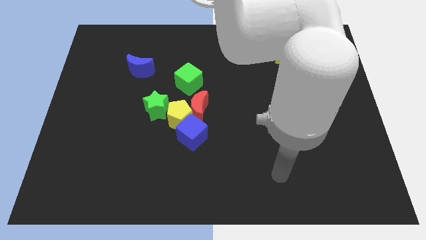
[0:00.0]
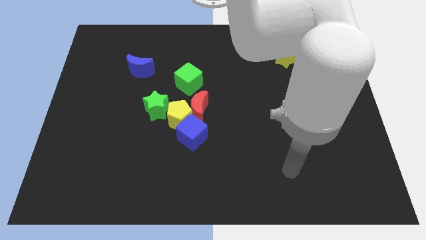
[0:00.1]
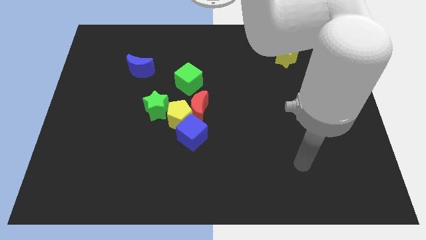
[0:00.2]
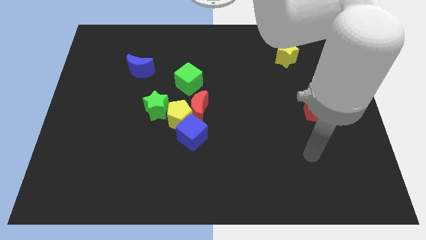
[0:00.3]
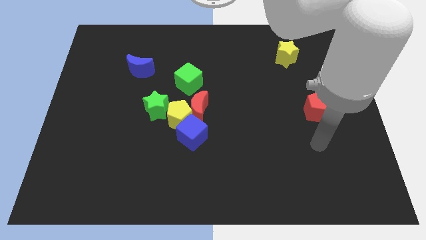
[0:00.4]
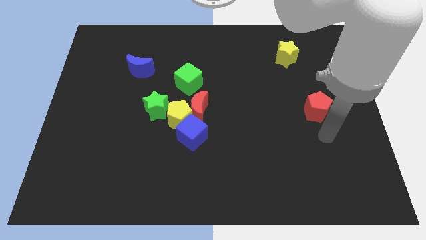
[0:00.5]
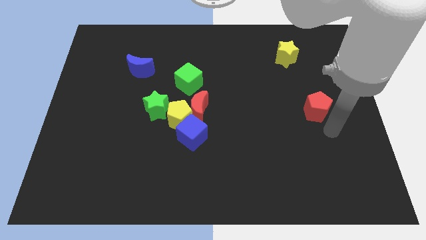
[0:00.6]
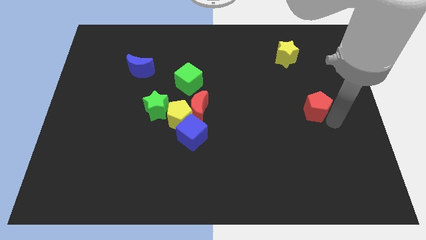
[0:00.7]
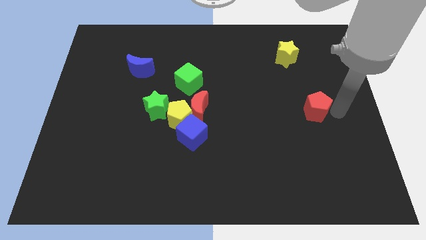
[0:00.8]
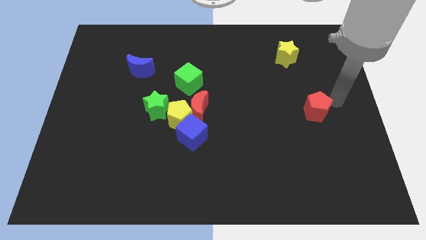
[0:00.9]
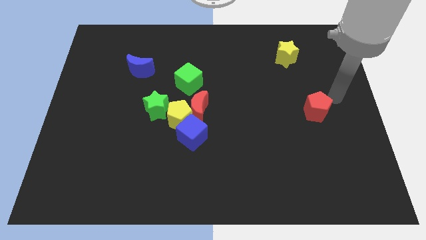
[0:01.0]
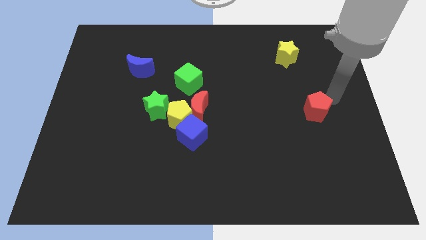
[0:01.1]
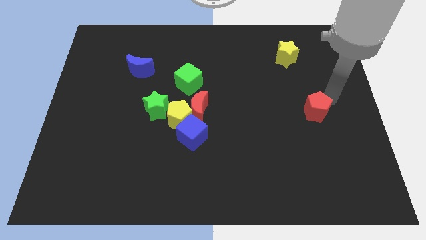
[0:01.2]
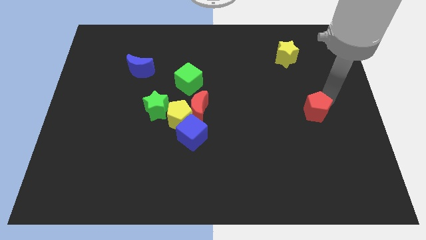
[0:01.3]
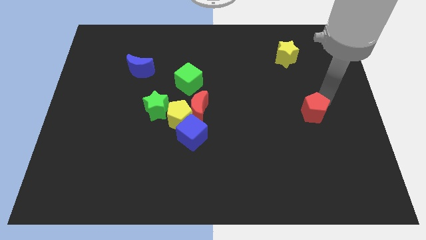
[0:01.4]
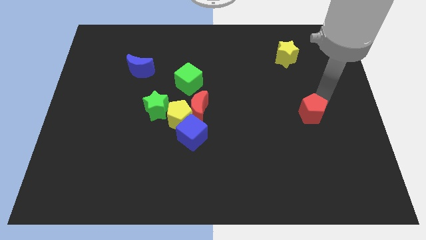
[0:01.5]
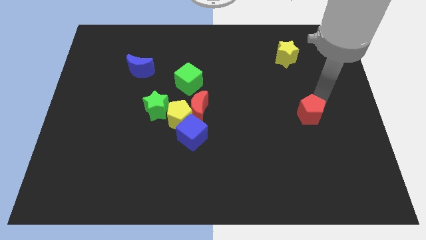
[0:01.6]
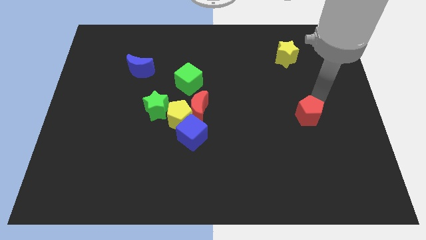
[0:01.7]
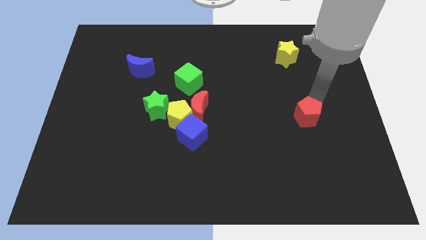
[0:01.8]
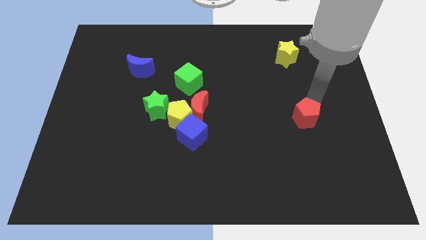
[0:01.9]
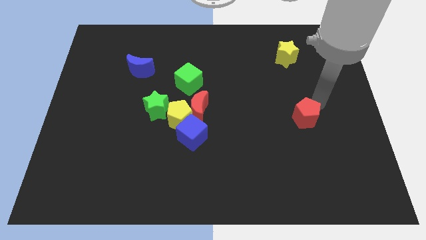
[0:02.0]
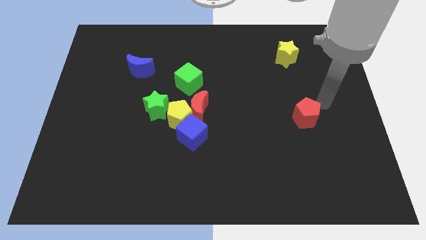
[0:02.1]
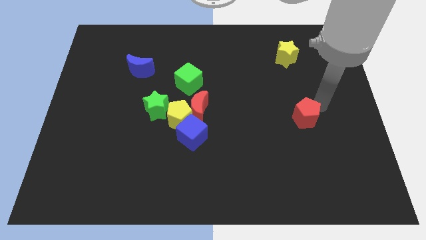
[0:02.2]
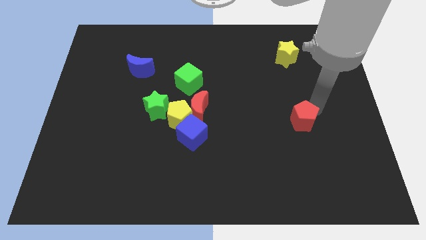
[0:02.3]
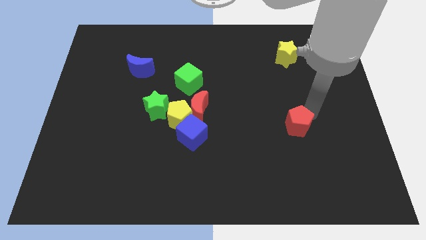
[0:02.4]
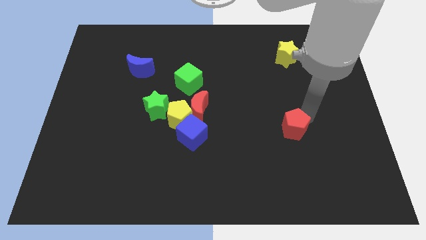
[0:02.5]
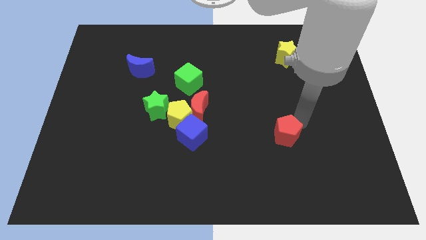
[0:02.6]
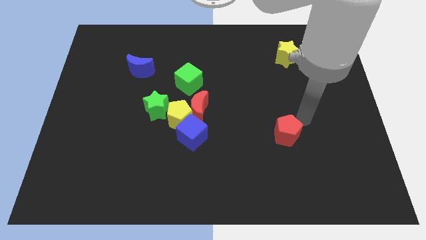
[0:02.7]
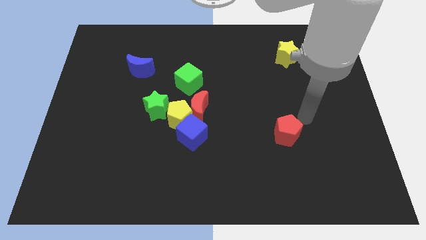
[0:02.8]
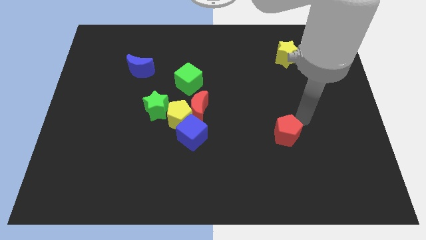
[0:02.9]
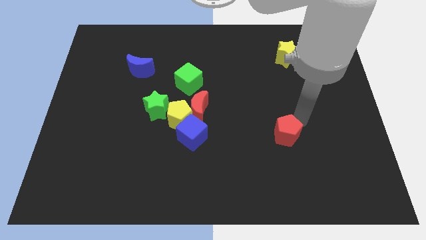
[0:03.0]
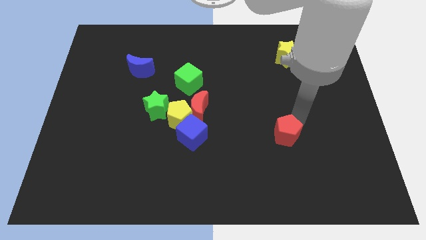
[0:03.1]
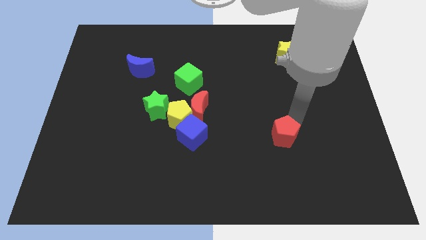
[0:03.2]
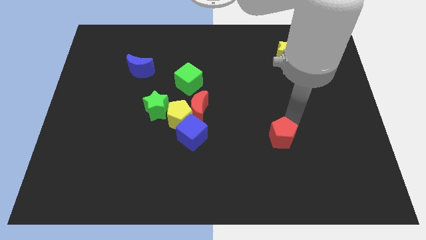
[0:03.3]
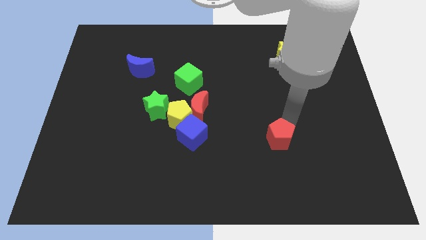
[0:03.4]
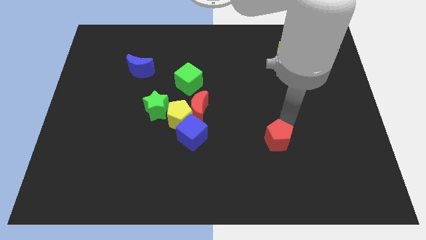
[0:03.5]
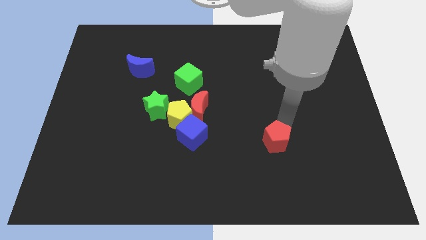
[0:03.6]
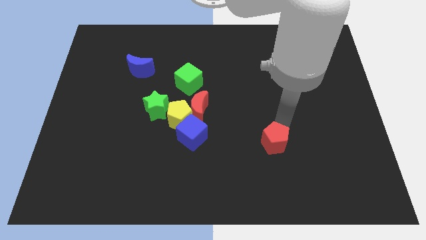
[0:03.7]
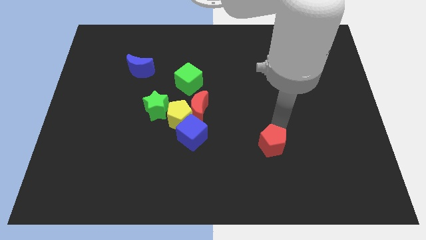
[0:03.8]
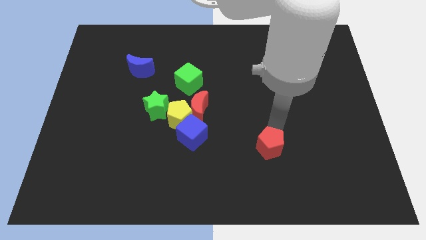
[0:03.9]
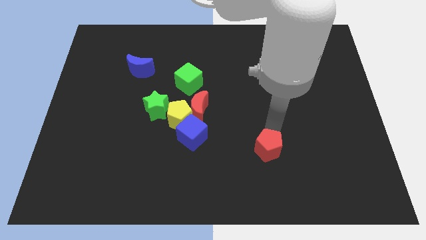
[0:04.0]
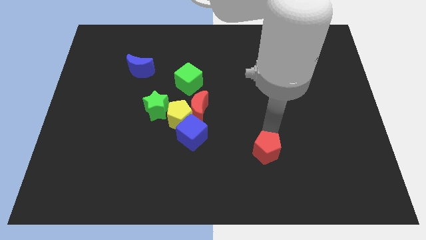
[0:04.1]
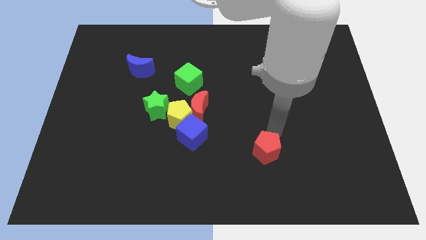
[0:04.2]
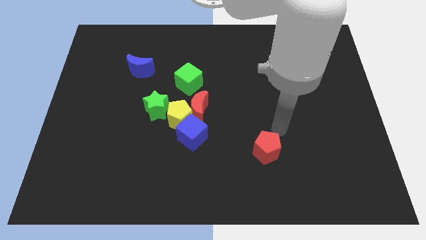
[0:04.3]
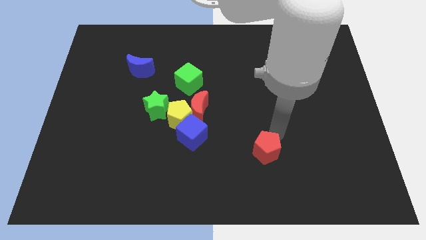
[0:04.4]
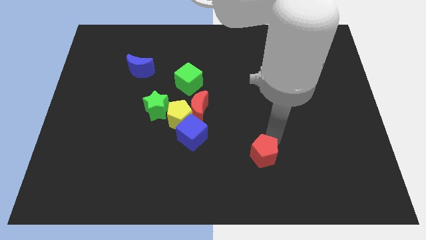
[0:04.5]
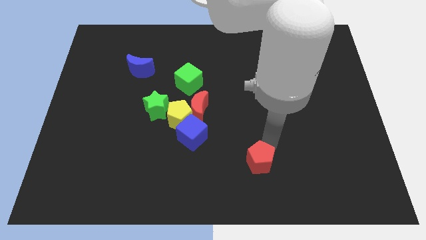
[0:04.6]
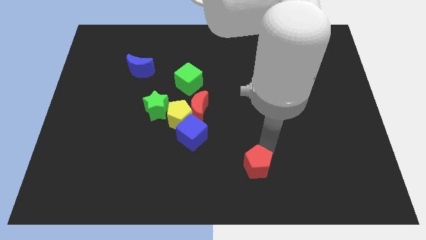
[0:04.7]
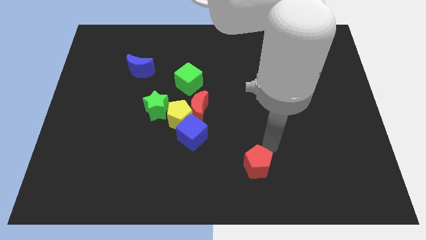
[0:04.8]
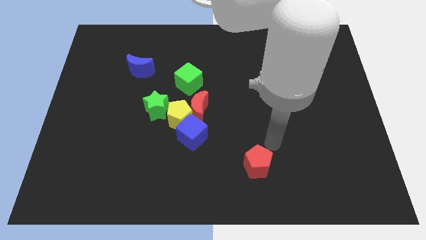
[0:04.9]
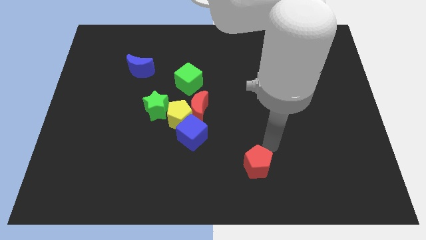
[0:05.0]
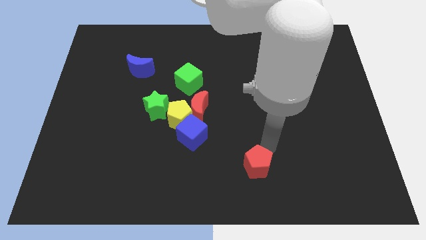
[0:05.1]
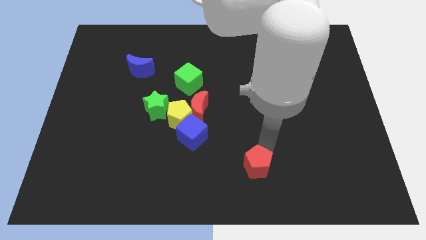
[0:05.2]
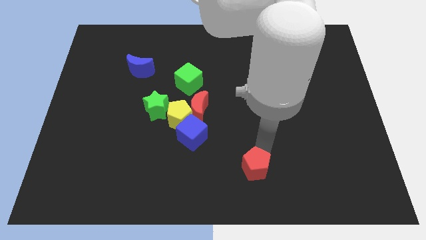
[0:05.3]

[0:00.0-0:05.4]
move the red pentagon to the bottom

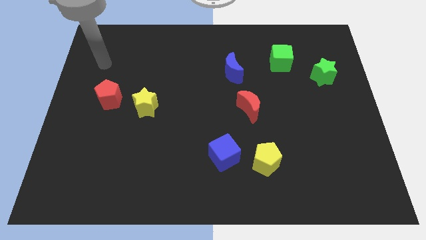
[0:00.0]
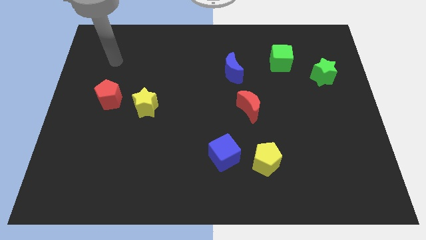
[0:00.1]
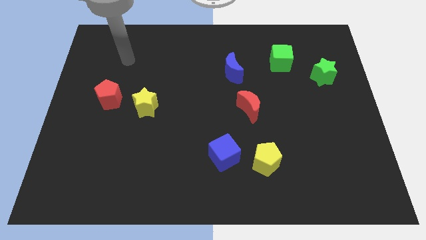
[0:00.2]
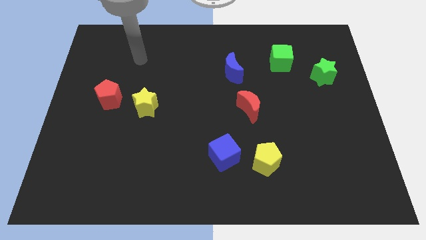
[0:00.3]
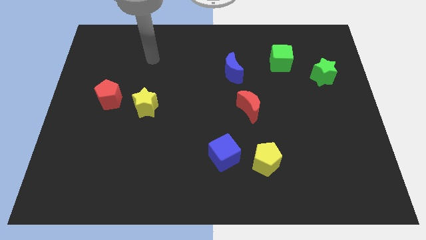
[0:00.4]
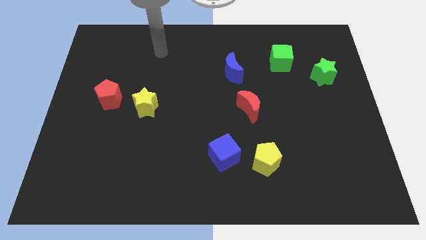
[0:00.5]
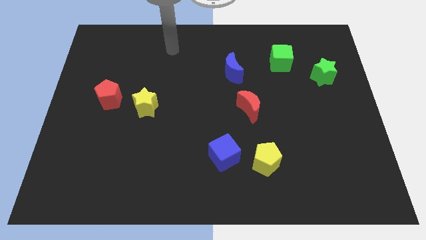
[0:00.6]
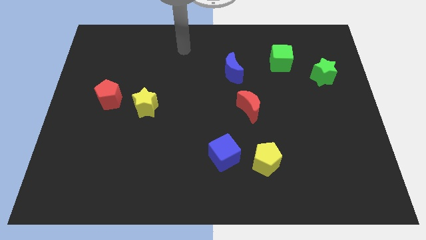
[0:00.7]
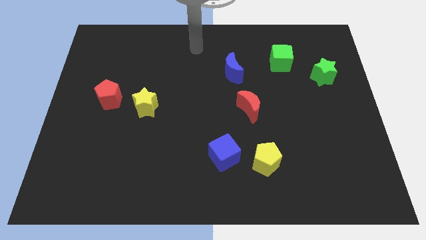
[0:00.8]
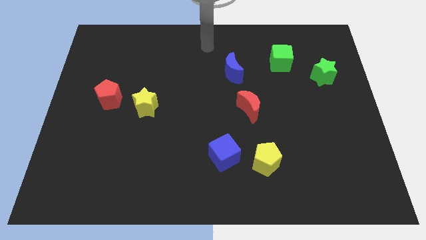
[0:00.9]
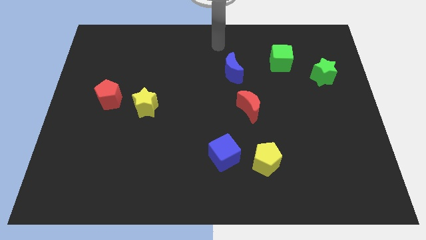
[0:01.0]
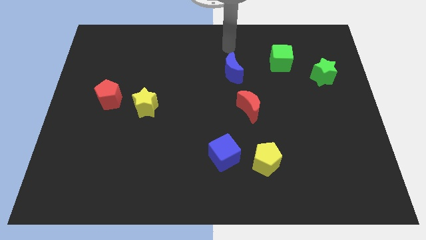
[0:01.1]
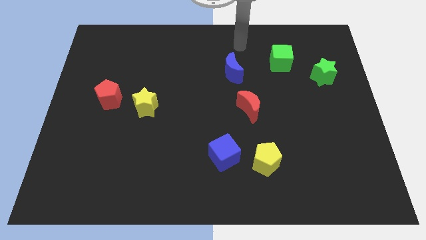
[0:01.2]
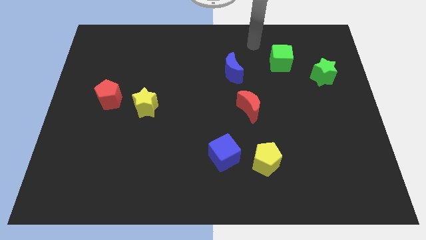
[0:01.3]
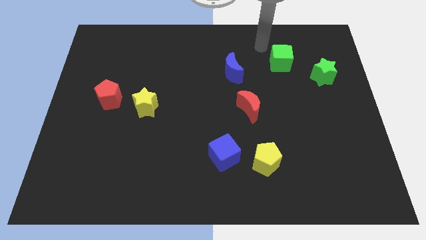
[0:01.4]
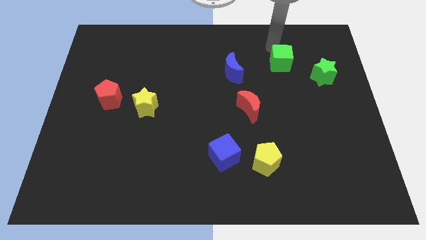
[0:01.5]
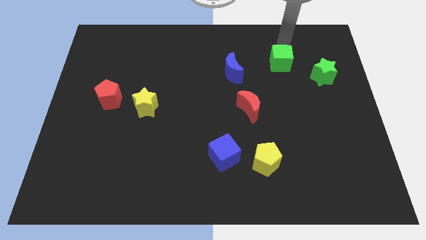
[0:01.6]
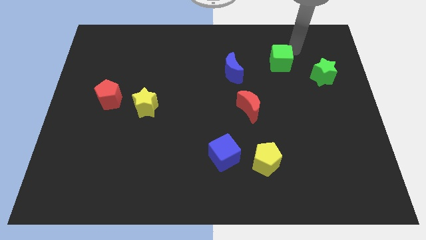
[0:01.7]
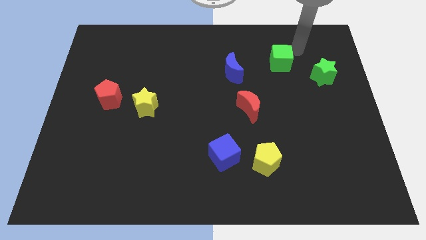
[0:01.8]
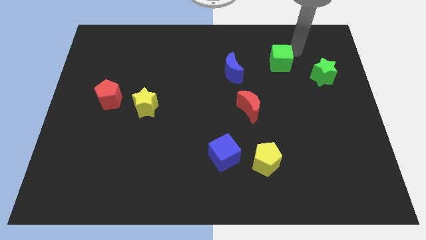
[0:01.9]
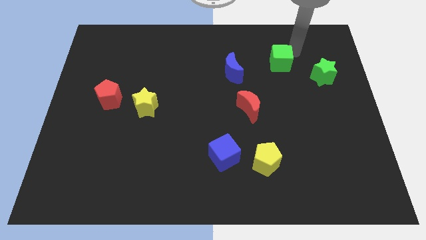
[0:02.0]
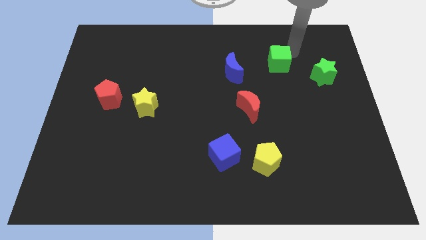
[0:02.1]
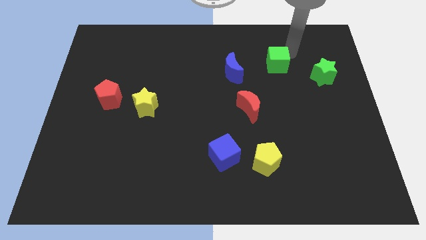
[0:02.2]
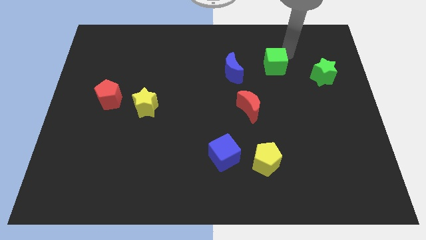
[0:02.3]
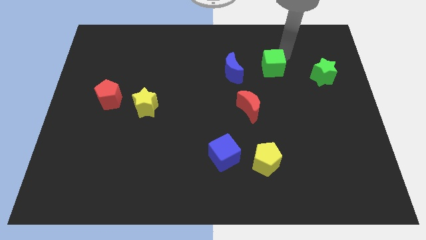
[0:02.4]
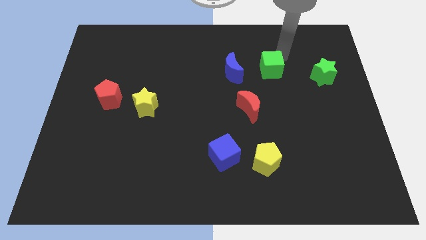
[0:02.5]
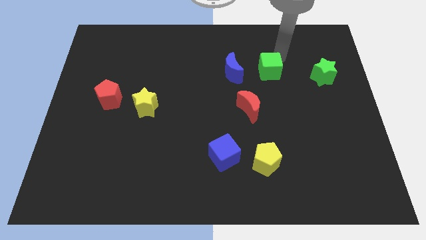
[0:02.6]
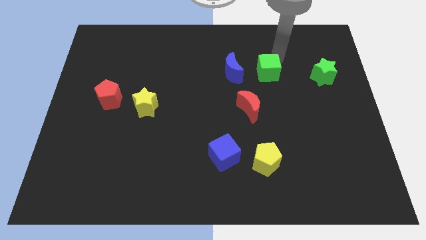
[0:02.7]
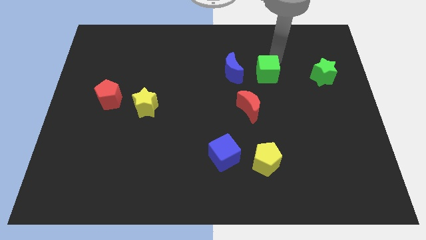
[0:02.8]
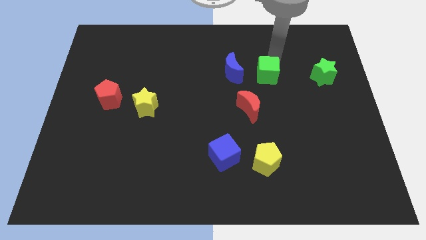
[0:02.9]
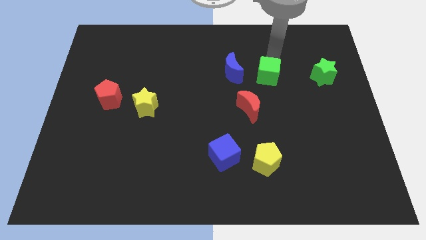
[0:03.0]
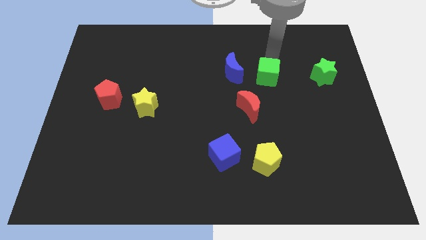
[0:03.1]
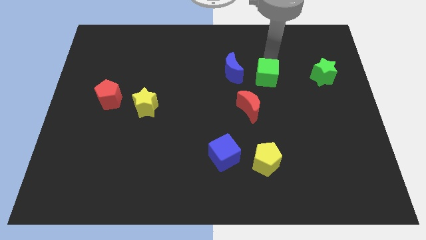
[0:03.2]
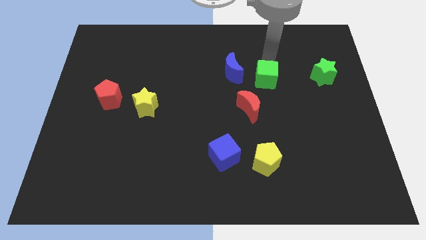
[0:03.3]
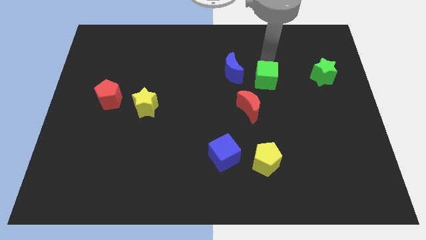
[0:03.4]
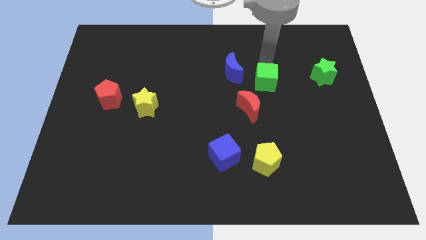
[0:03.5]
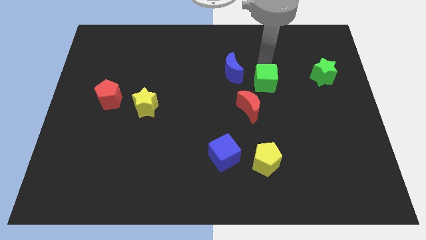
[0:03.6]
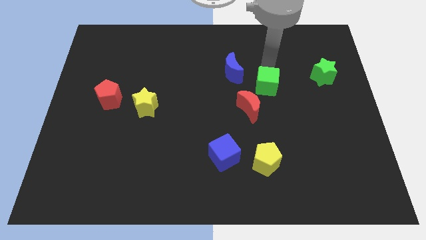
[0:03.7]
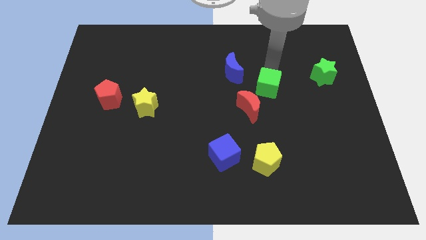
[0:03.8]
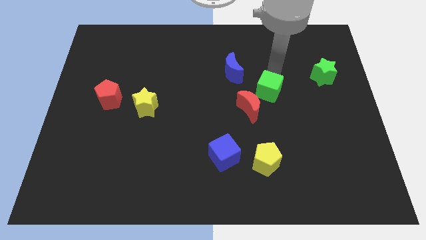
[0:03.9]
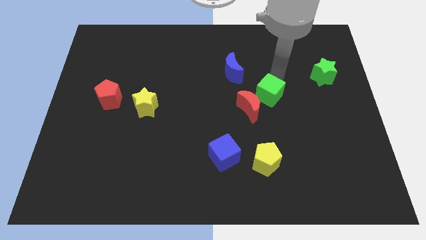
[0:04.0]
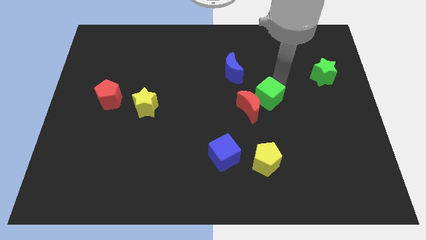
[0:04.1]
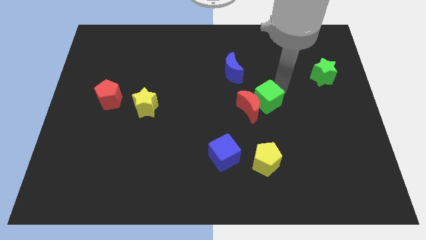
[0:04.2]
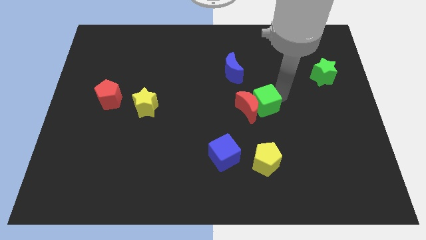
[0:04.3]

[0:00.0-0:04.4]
move the green cube to the center
